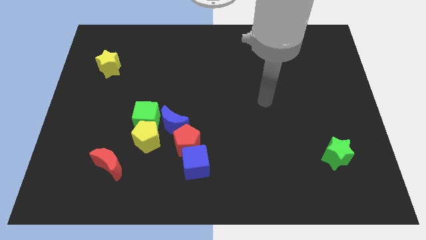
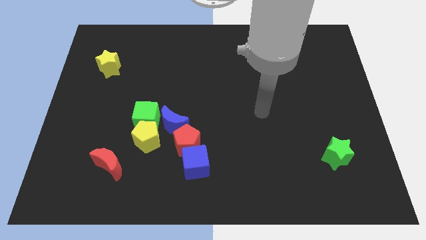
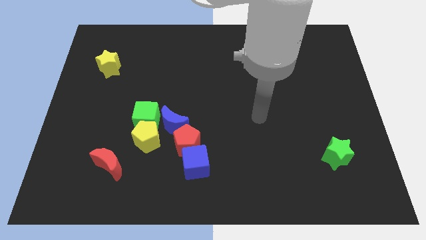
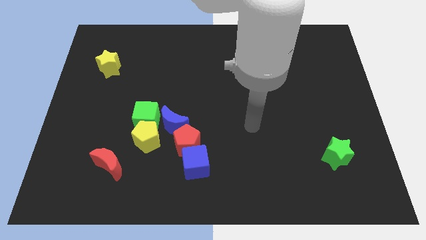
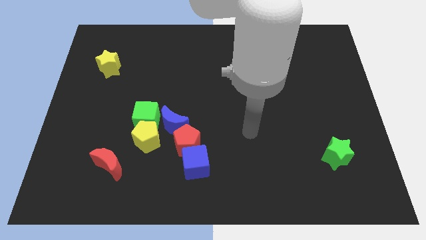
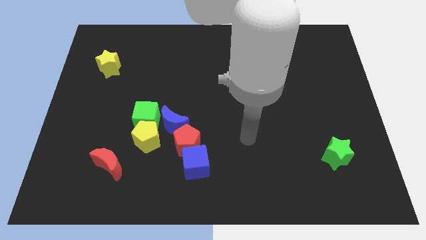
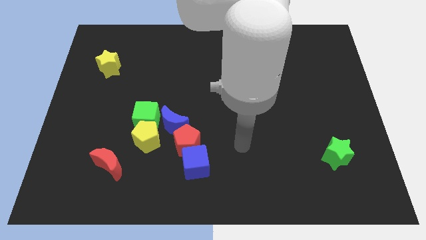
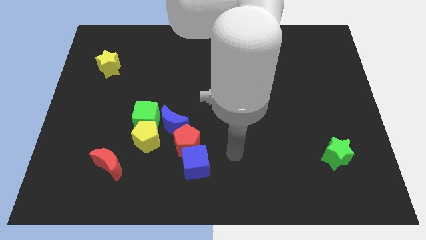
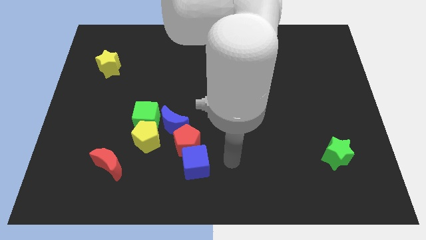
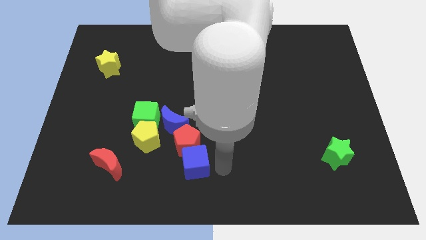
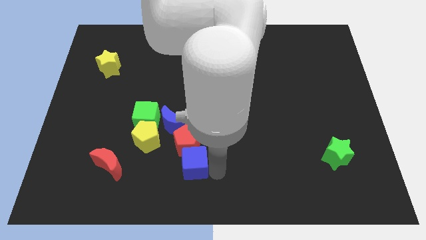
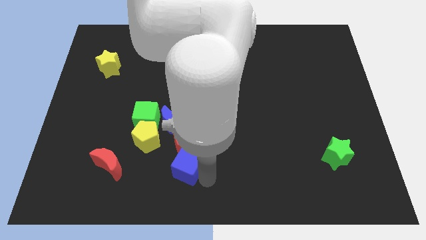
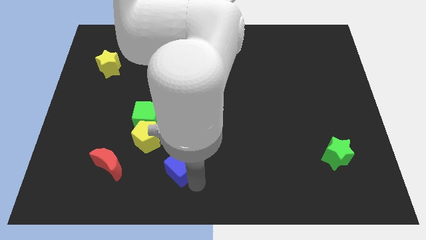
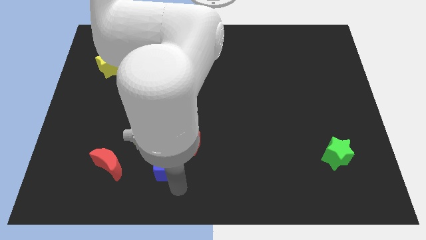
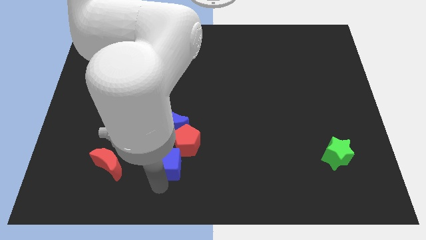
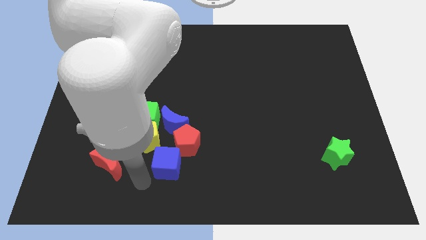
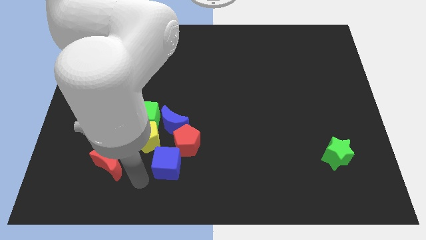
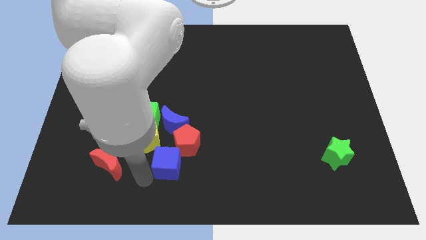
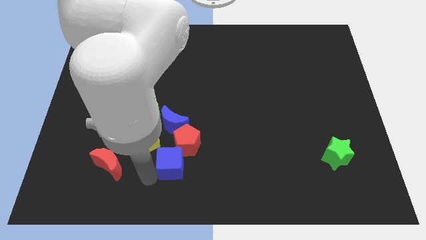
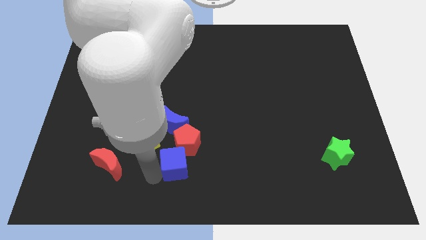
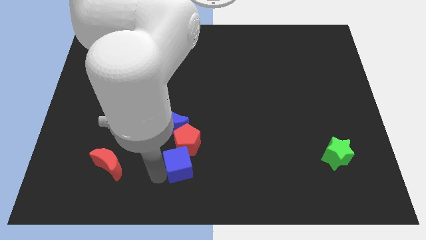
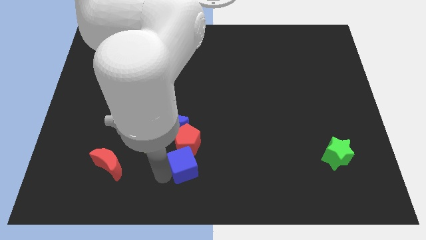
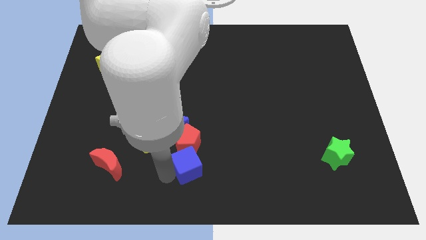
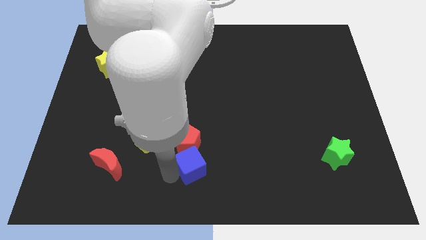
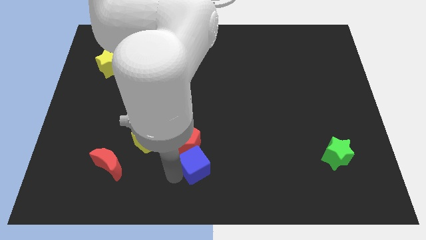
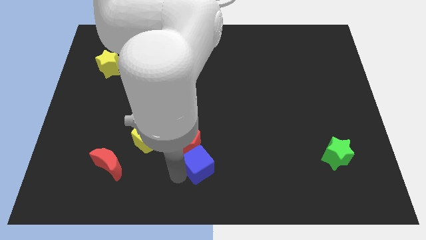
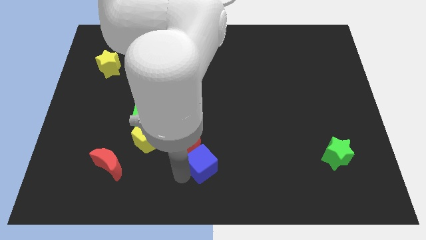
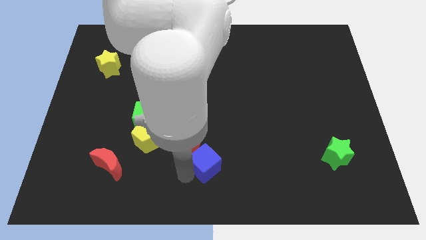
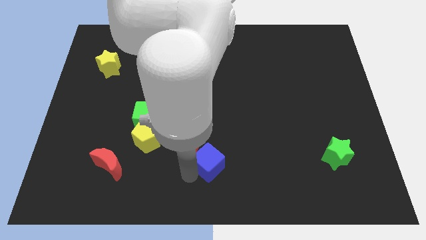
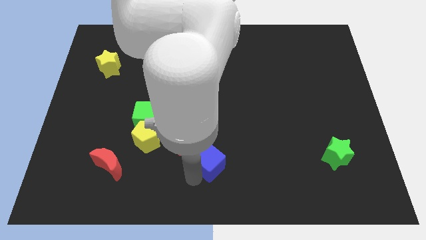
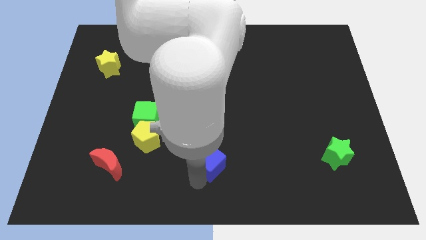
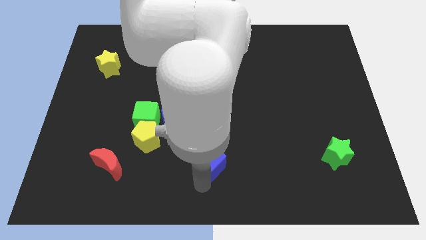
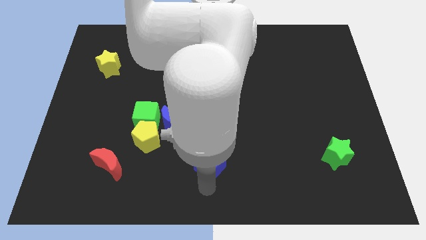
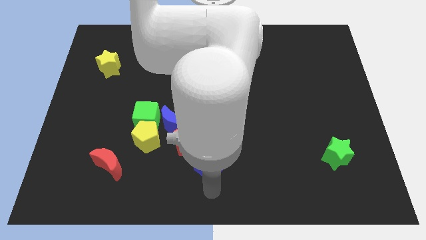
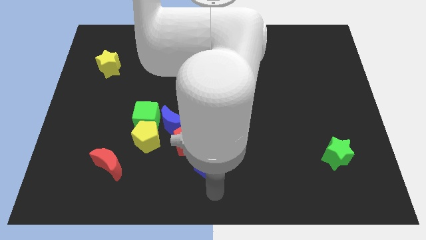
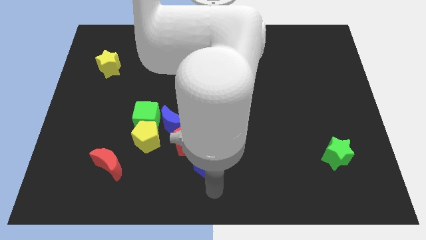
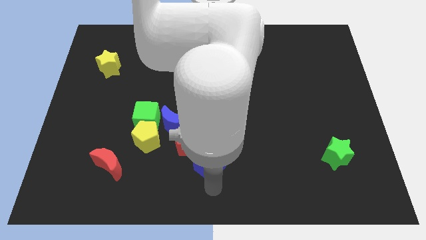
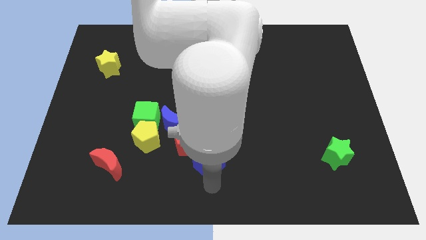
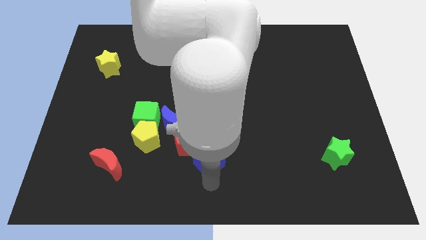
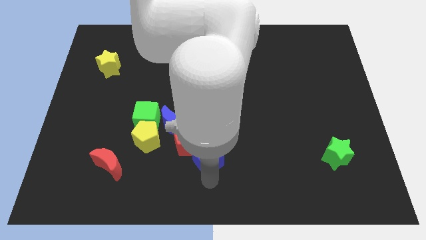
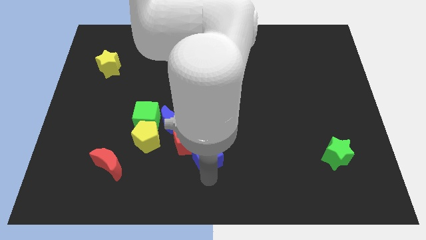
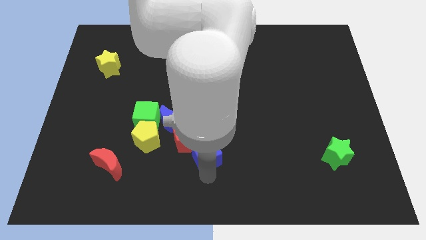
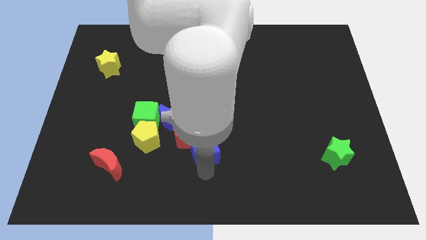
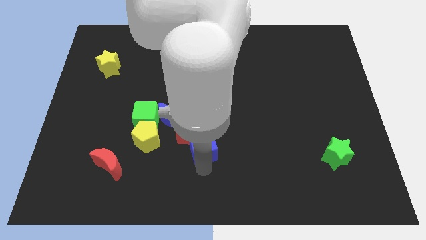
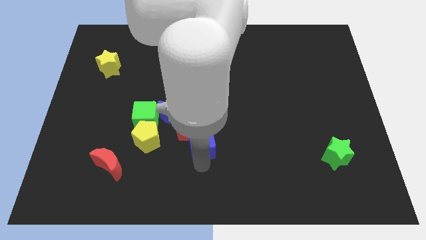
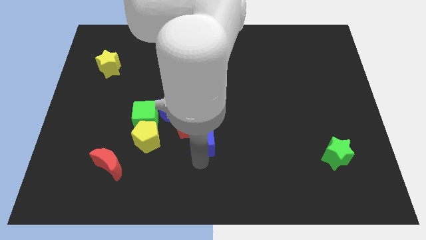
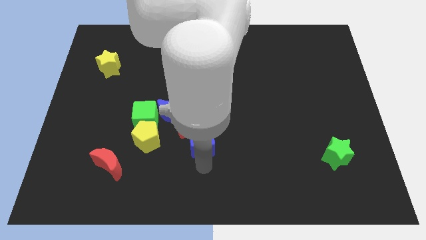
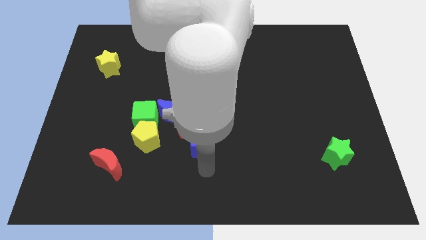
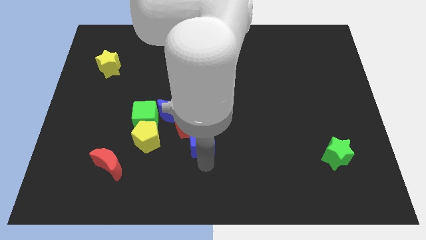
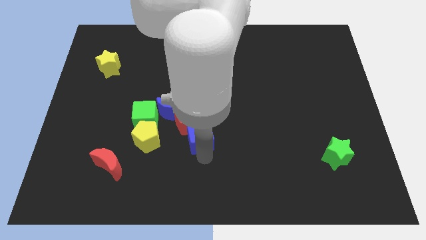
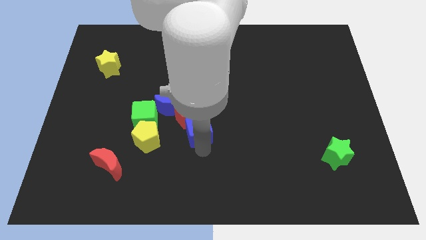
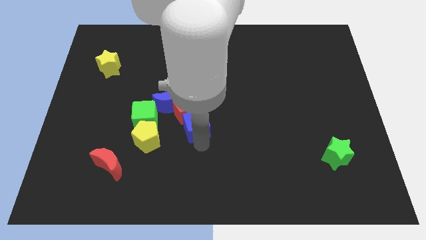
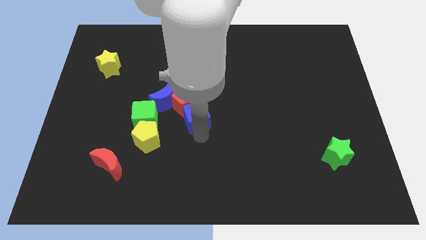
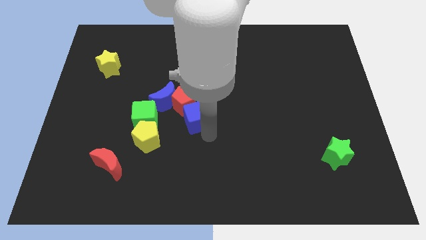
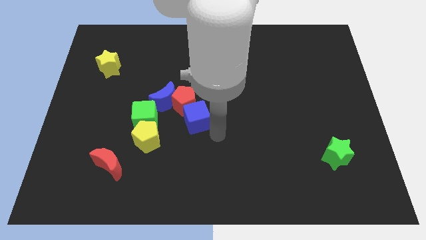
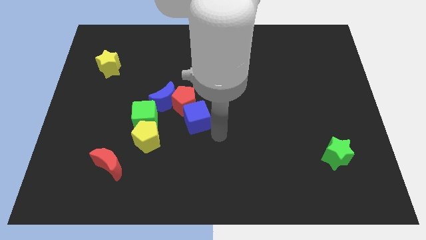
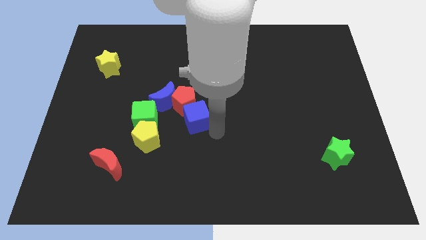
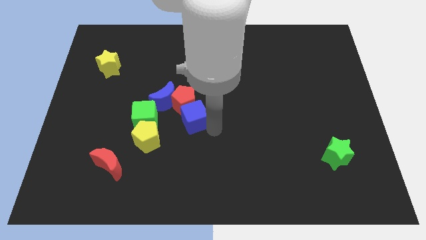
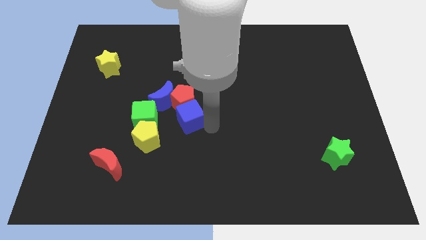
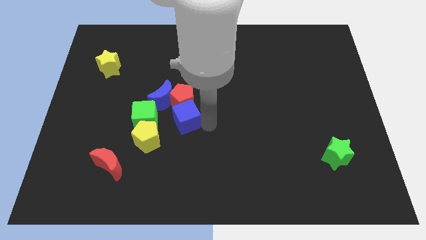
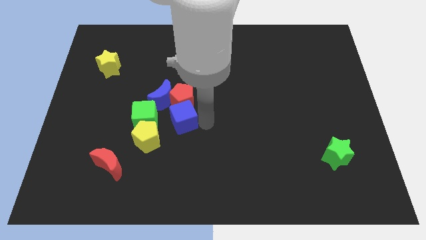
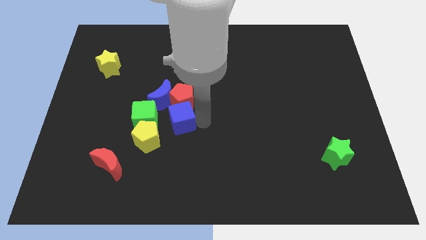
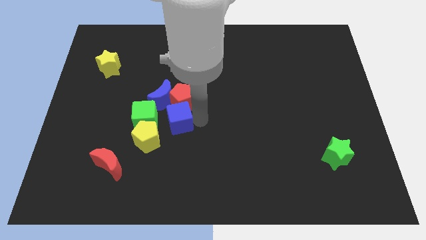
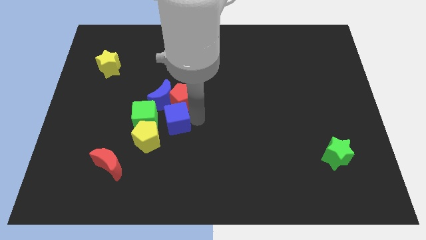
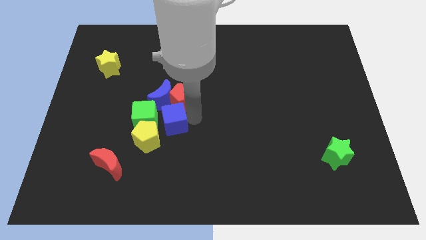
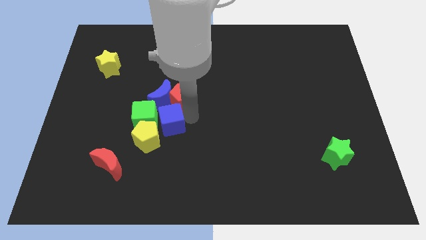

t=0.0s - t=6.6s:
put the blue cube to the top right of the green cube
